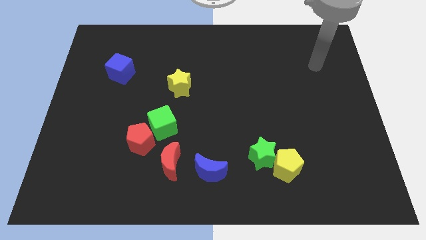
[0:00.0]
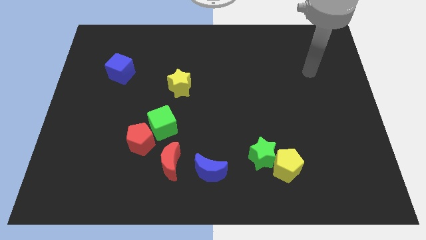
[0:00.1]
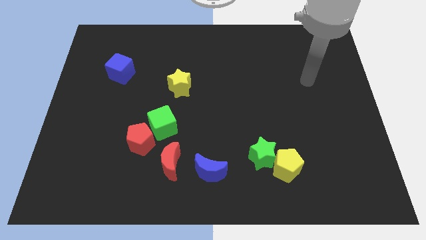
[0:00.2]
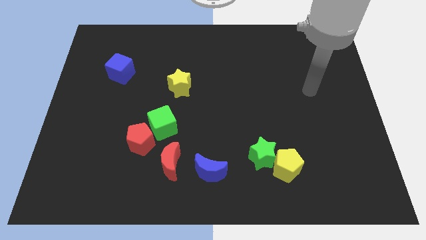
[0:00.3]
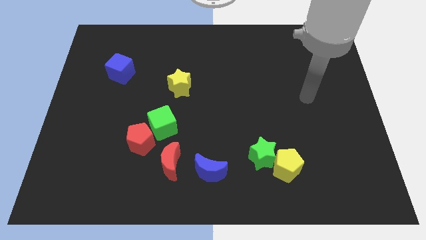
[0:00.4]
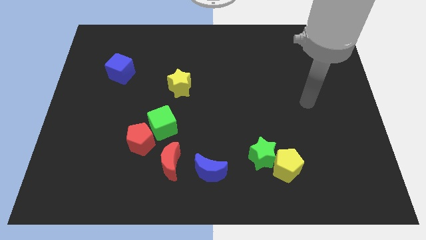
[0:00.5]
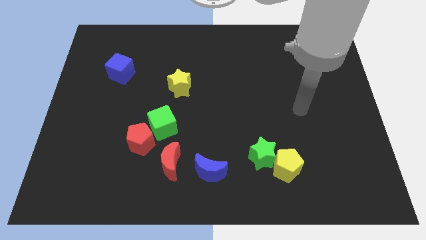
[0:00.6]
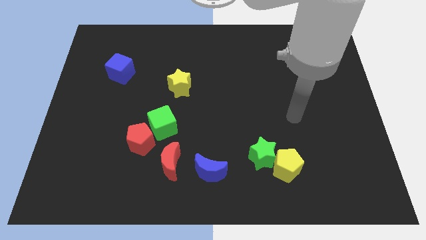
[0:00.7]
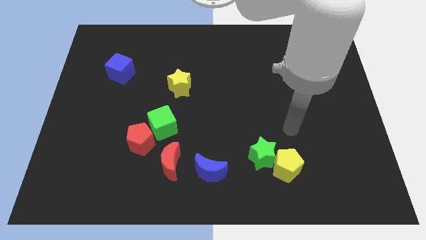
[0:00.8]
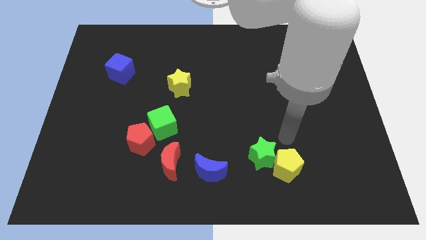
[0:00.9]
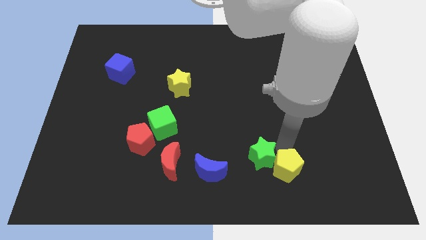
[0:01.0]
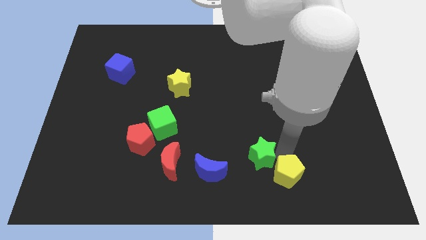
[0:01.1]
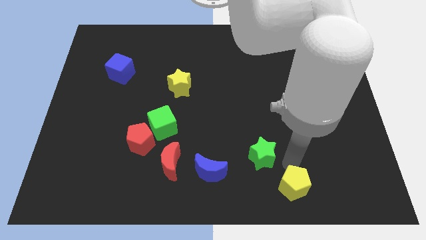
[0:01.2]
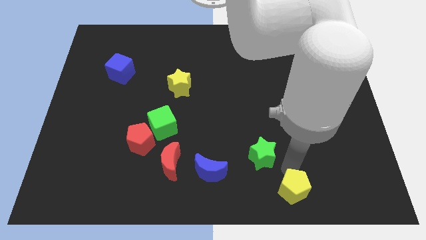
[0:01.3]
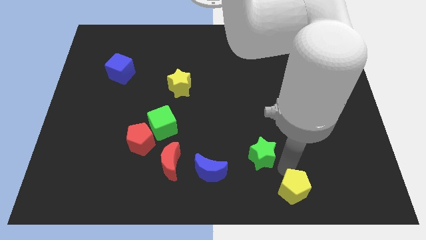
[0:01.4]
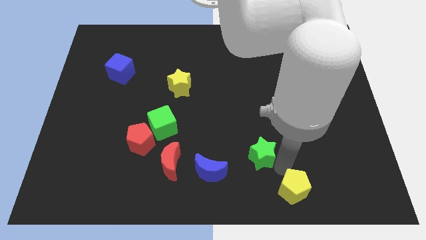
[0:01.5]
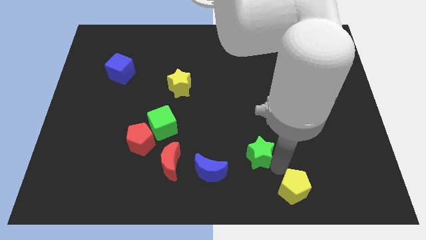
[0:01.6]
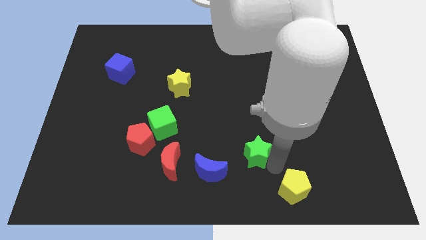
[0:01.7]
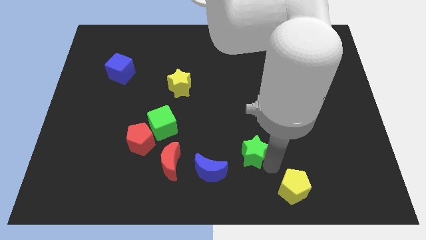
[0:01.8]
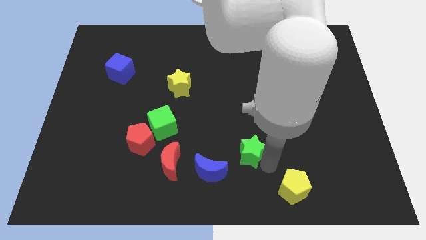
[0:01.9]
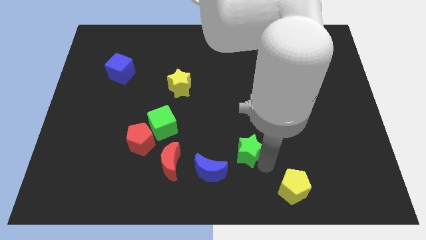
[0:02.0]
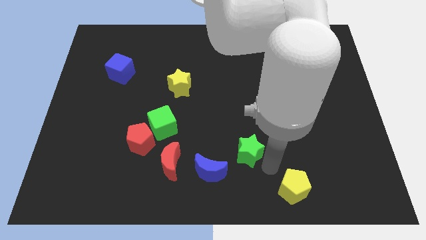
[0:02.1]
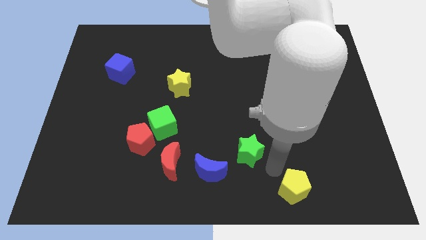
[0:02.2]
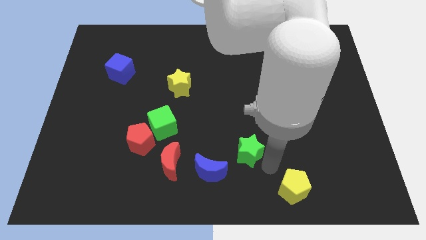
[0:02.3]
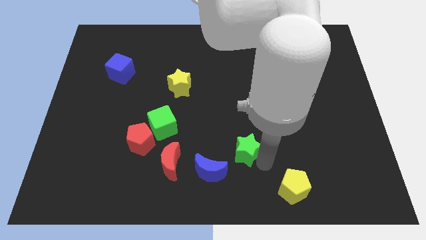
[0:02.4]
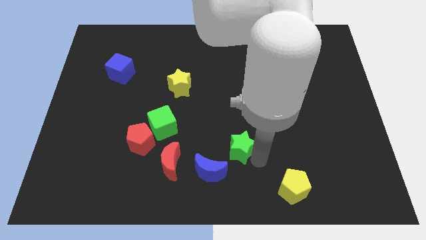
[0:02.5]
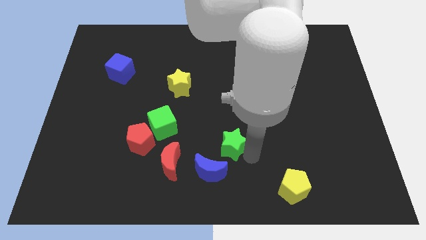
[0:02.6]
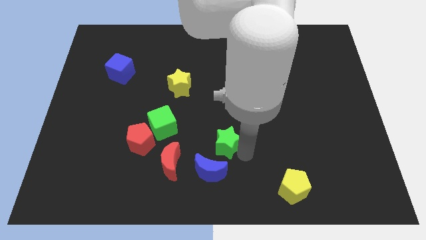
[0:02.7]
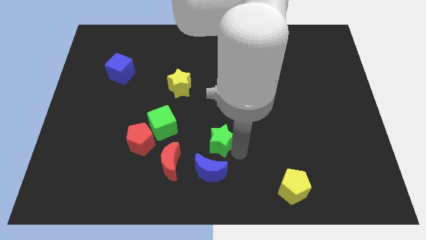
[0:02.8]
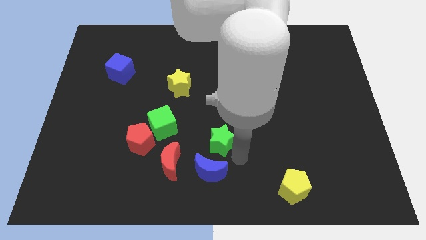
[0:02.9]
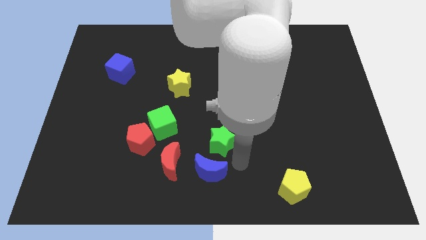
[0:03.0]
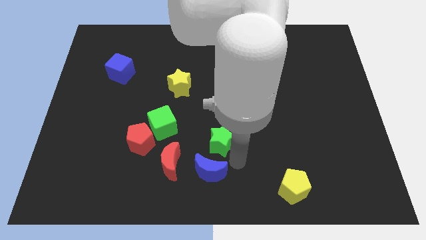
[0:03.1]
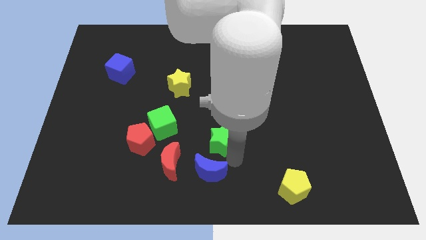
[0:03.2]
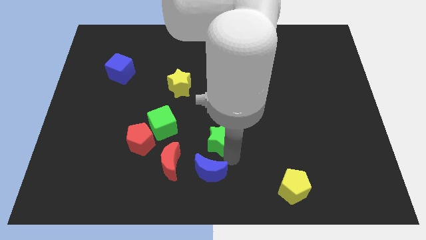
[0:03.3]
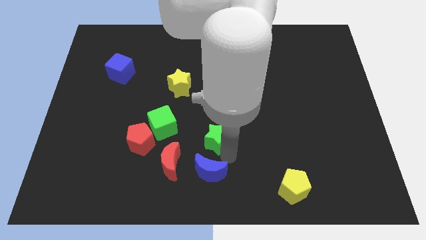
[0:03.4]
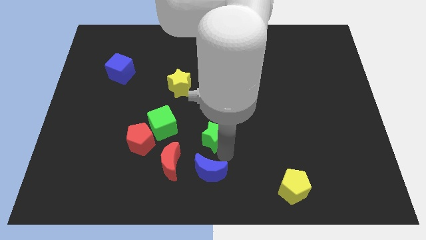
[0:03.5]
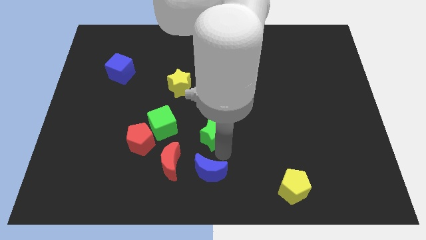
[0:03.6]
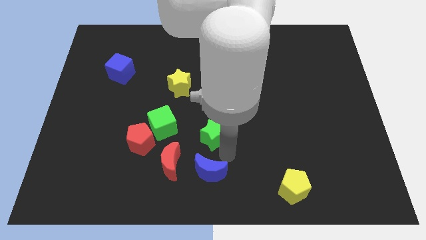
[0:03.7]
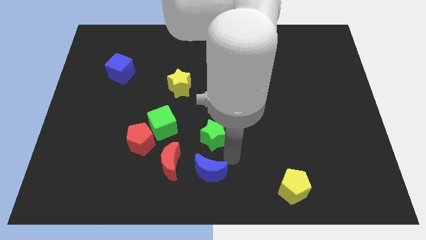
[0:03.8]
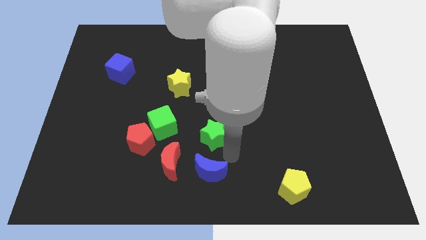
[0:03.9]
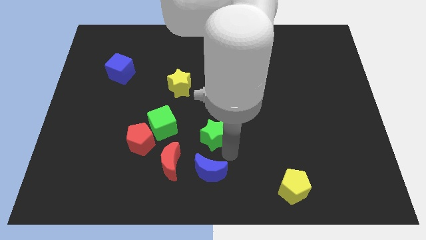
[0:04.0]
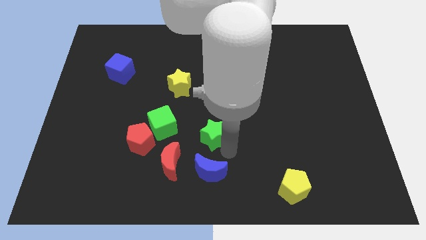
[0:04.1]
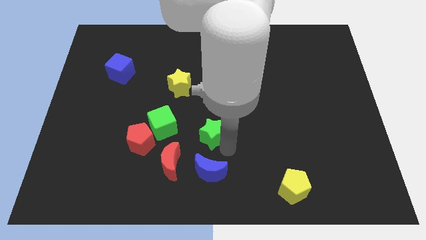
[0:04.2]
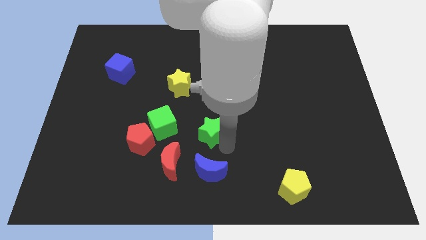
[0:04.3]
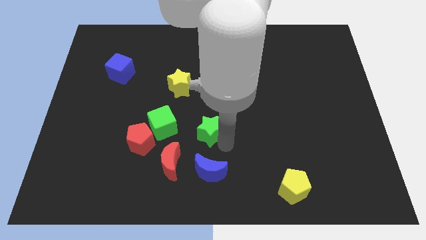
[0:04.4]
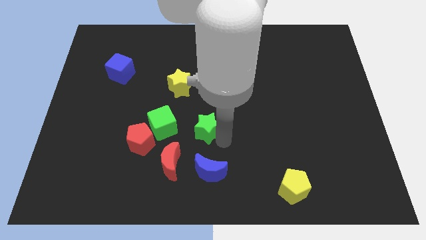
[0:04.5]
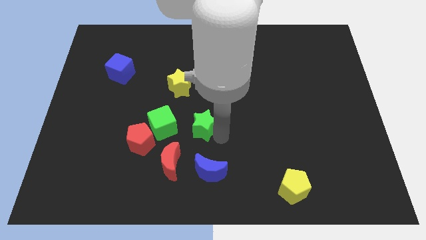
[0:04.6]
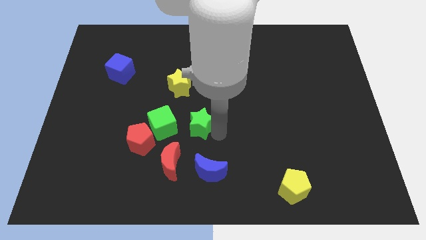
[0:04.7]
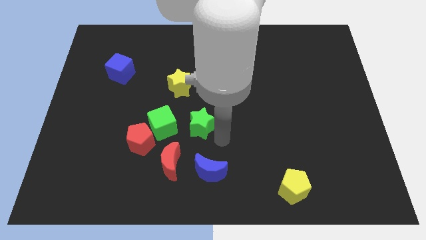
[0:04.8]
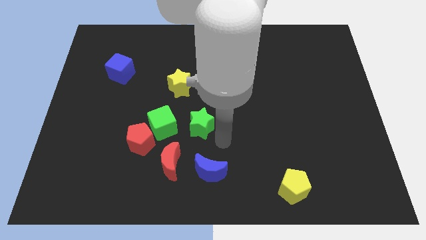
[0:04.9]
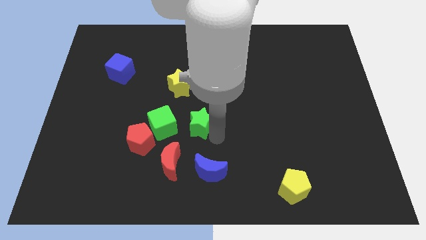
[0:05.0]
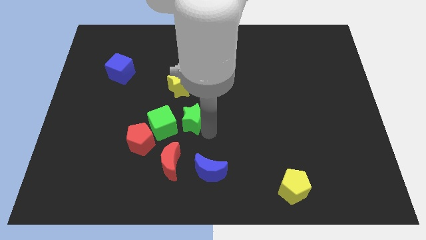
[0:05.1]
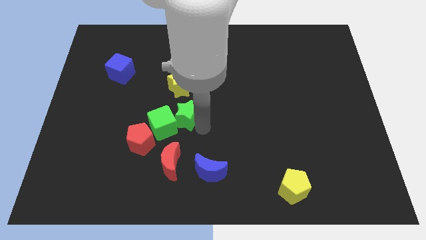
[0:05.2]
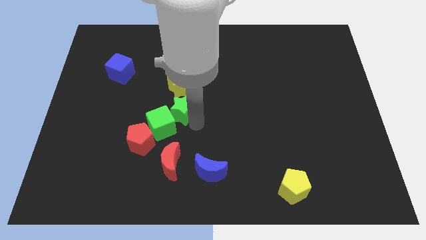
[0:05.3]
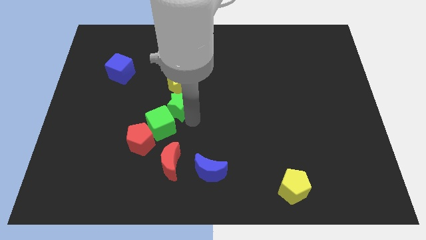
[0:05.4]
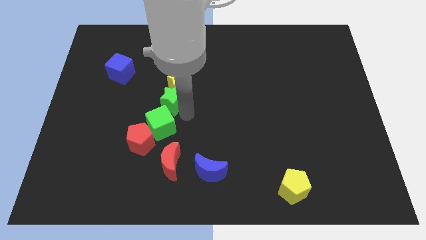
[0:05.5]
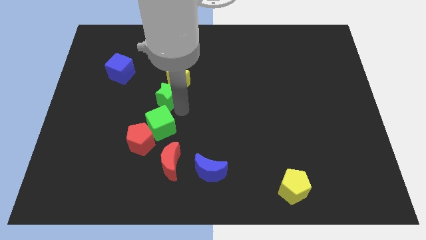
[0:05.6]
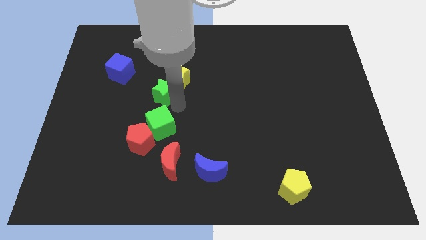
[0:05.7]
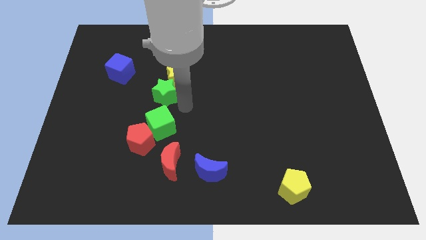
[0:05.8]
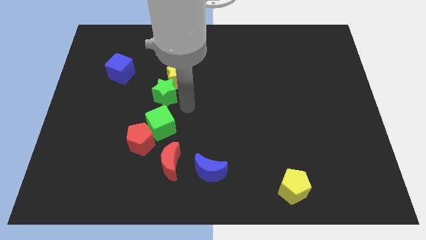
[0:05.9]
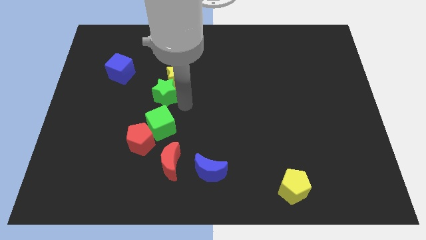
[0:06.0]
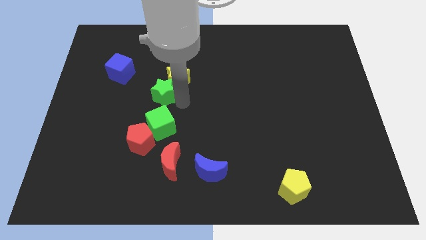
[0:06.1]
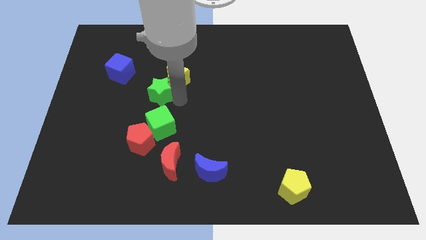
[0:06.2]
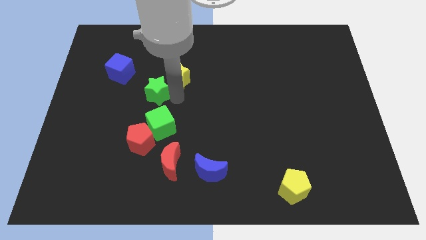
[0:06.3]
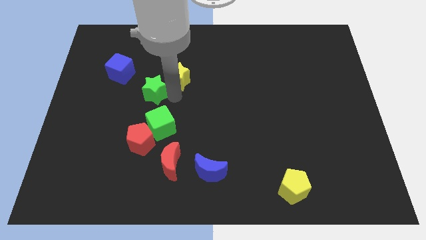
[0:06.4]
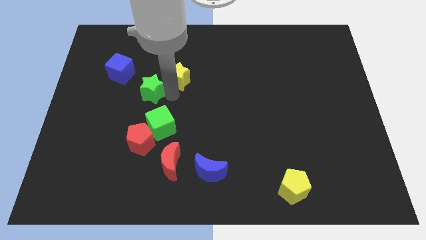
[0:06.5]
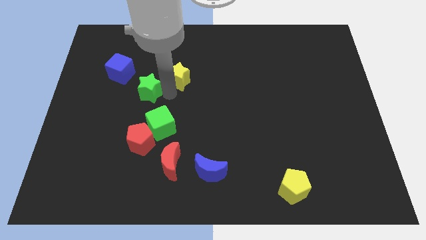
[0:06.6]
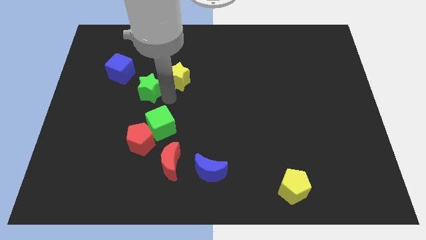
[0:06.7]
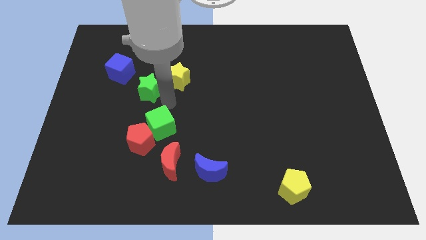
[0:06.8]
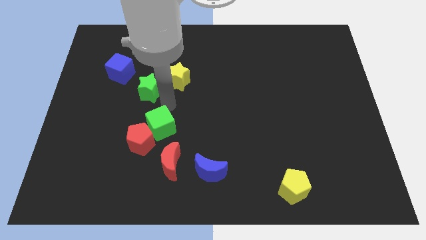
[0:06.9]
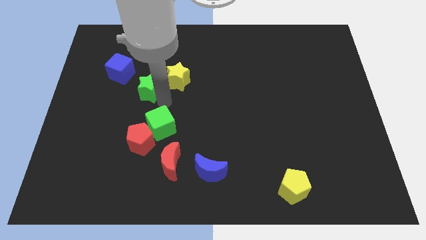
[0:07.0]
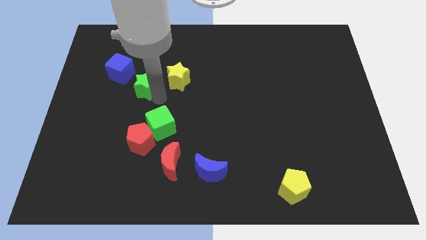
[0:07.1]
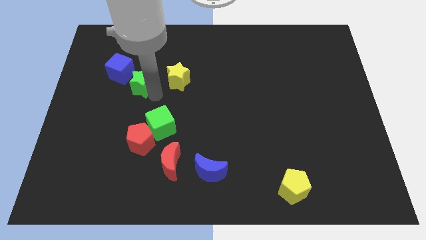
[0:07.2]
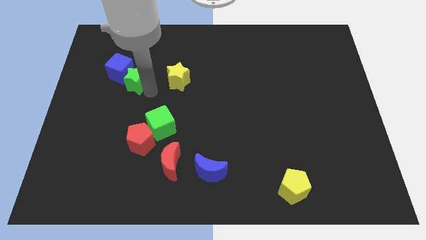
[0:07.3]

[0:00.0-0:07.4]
slide the green star towards the blue cube
